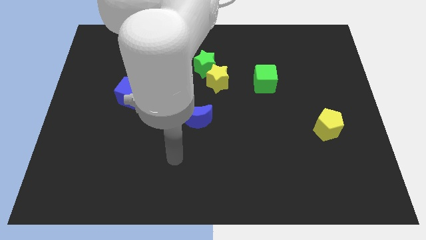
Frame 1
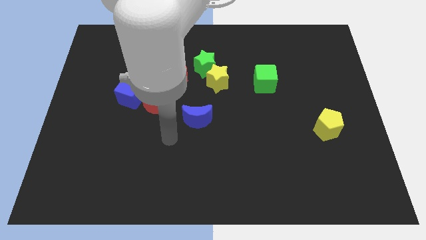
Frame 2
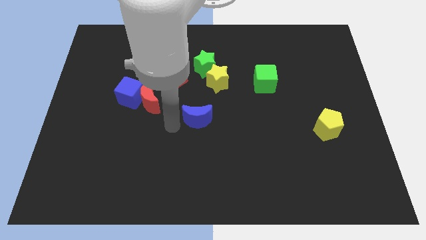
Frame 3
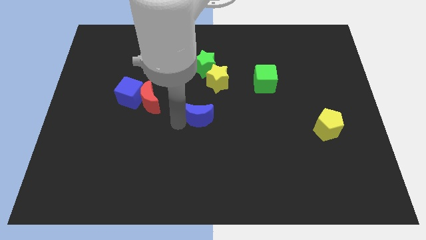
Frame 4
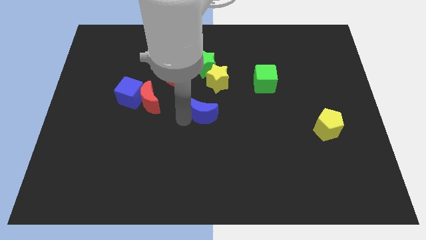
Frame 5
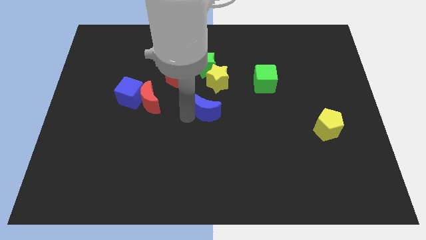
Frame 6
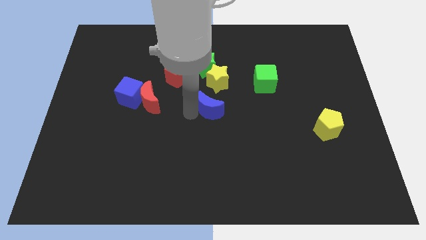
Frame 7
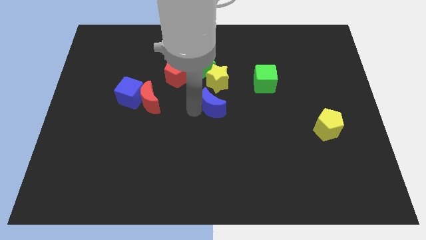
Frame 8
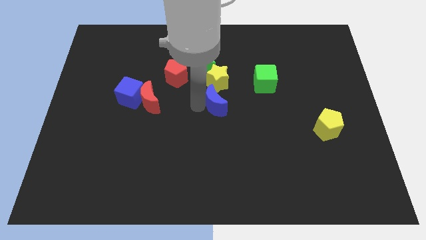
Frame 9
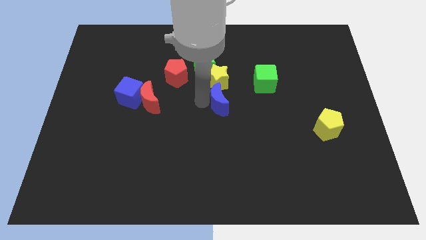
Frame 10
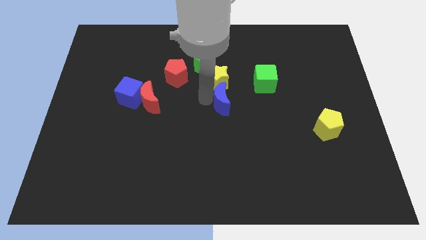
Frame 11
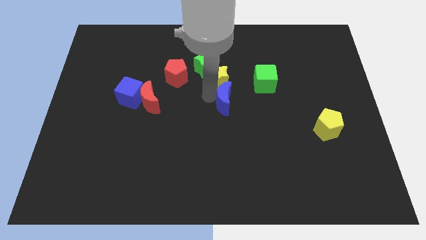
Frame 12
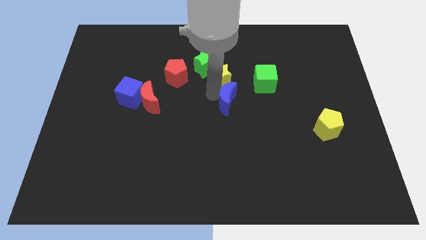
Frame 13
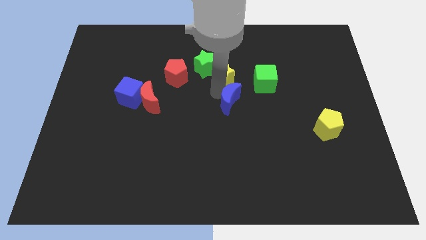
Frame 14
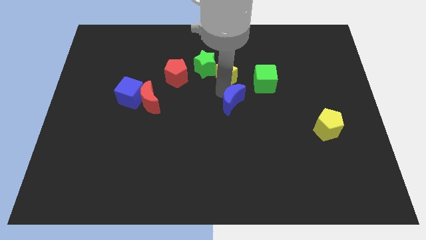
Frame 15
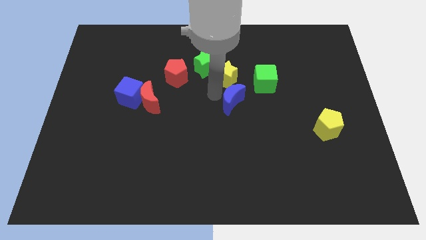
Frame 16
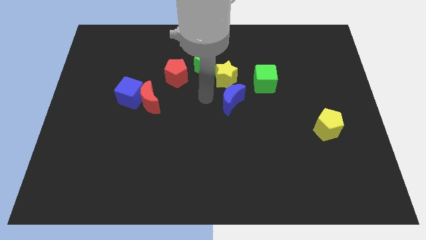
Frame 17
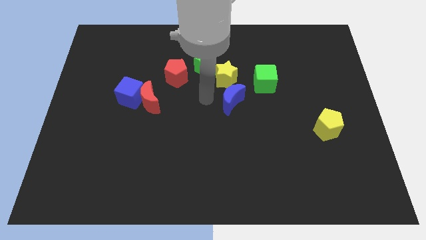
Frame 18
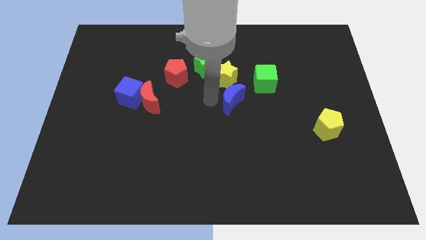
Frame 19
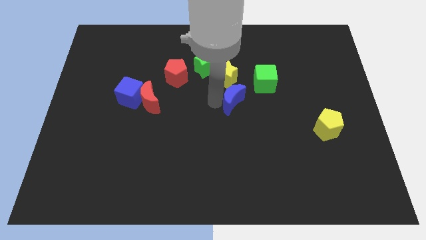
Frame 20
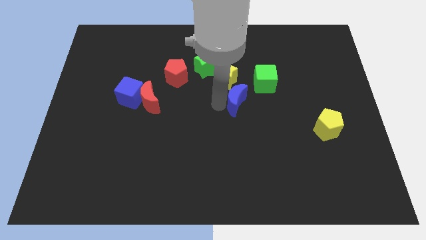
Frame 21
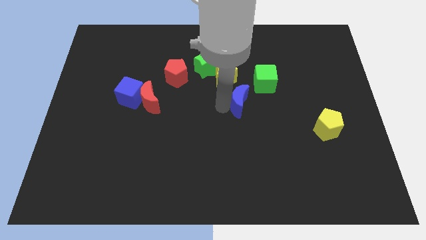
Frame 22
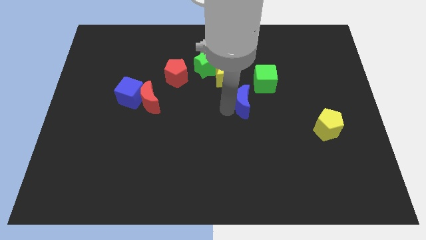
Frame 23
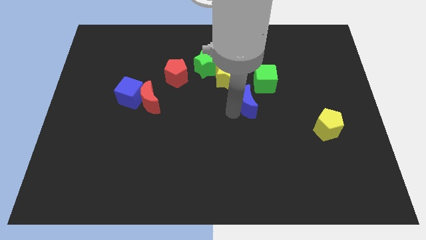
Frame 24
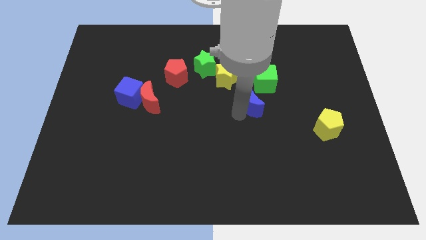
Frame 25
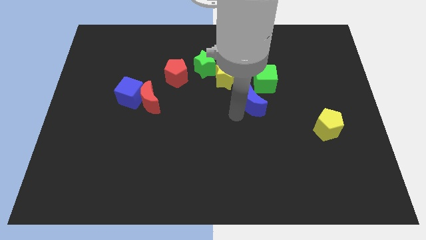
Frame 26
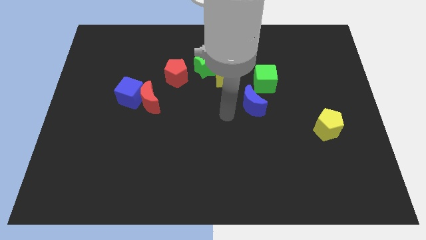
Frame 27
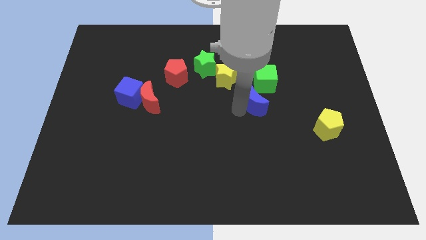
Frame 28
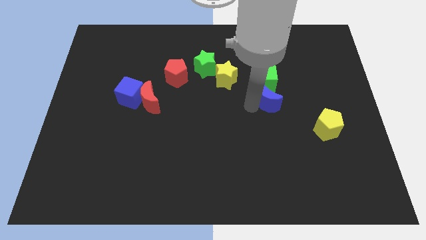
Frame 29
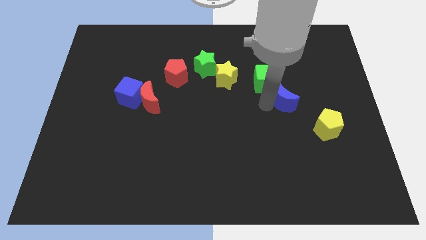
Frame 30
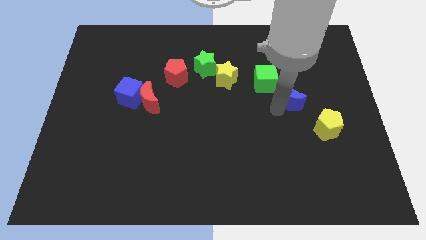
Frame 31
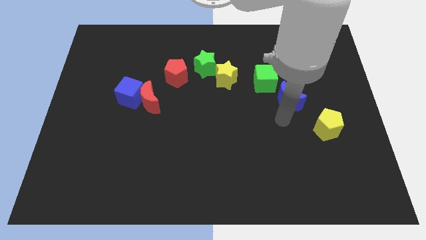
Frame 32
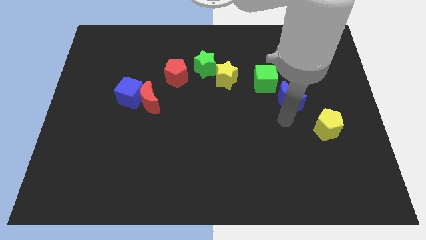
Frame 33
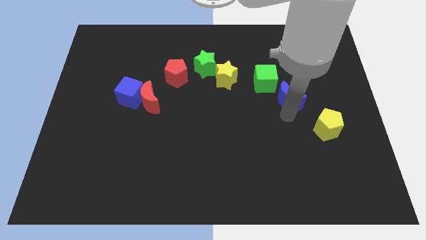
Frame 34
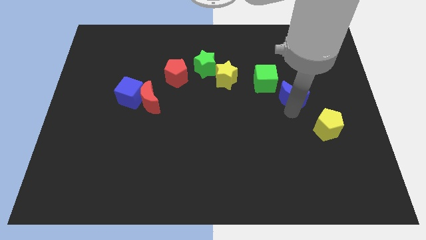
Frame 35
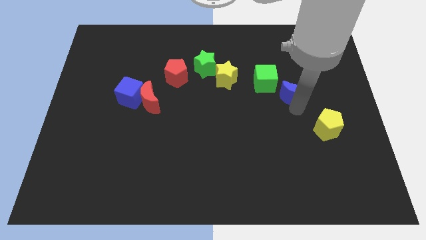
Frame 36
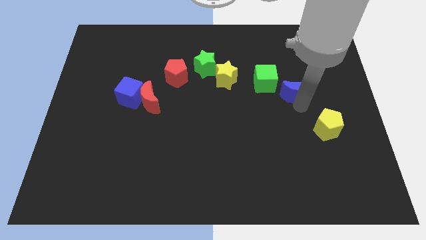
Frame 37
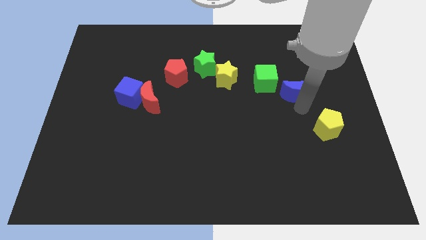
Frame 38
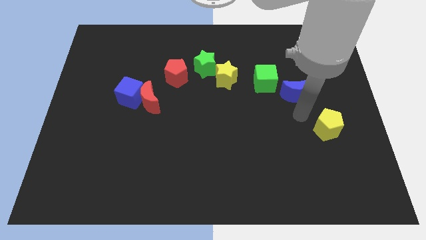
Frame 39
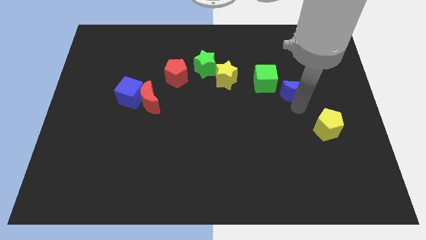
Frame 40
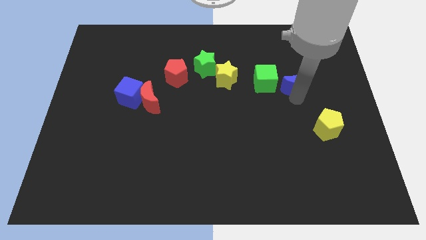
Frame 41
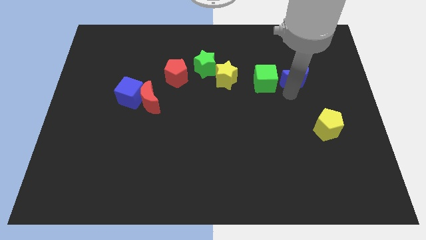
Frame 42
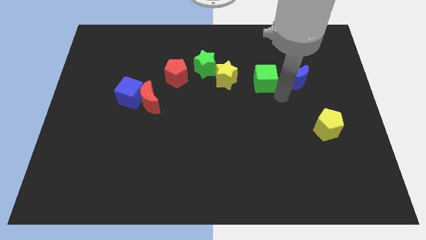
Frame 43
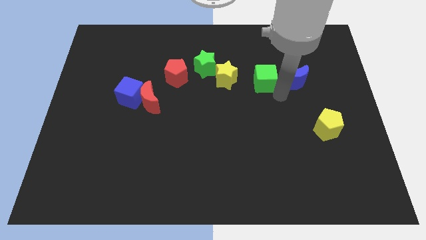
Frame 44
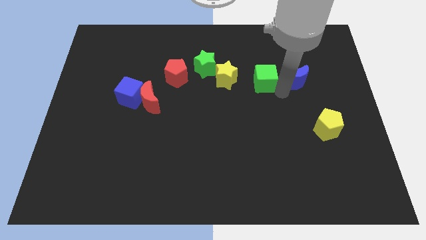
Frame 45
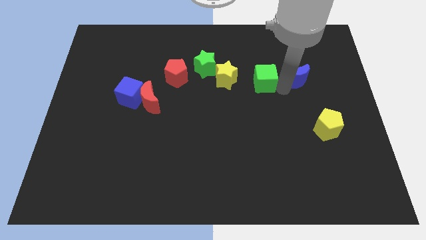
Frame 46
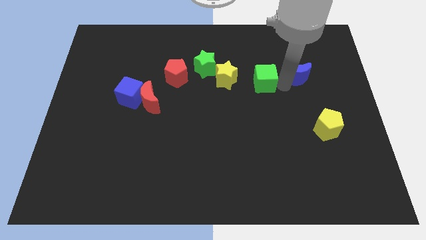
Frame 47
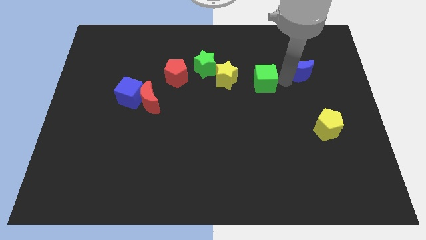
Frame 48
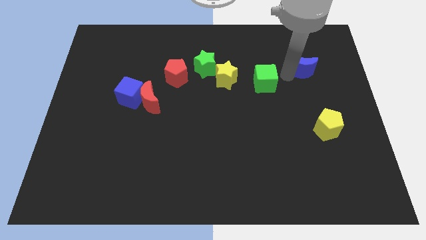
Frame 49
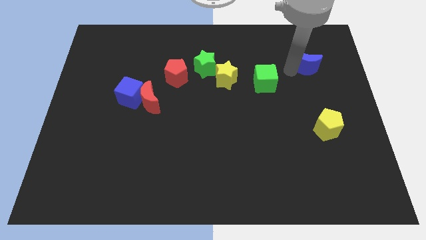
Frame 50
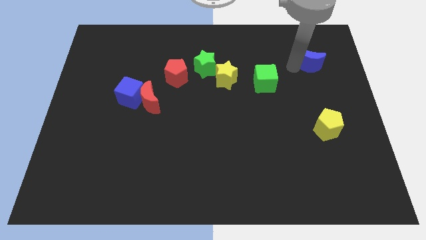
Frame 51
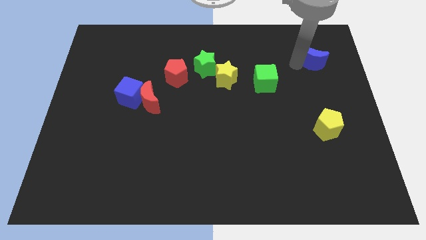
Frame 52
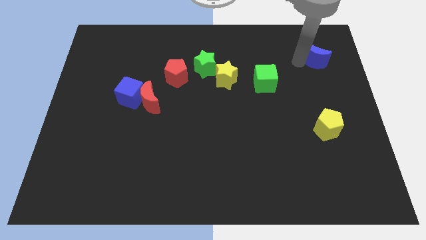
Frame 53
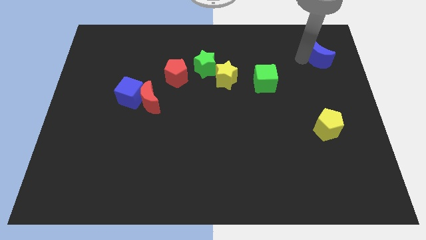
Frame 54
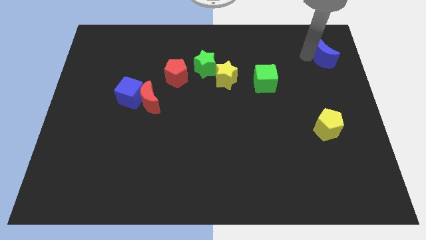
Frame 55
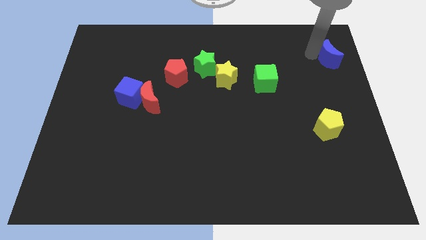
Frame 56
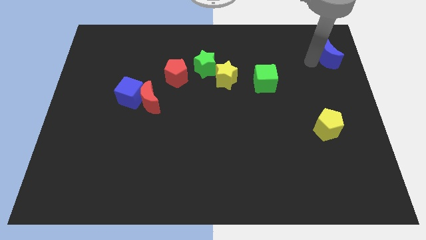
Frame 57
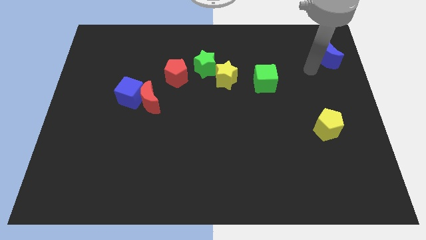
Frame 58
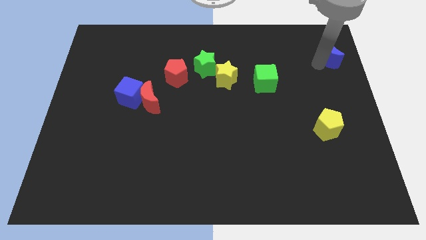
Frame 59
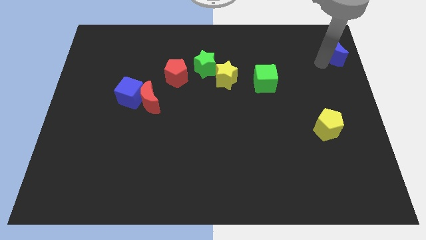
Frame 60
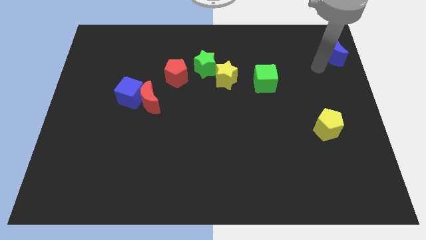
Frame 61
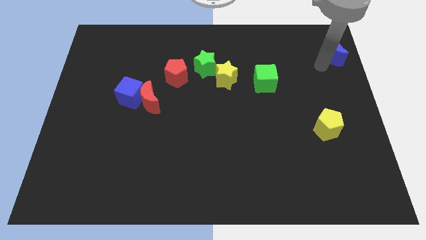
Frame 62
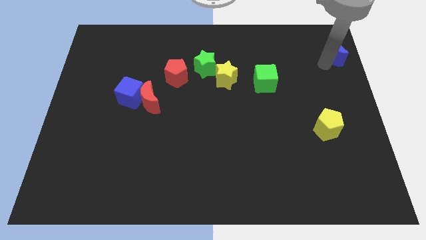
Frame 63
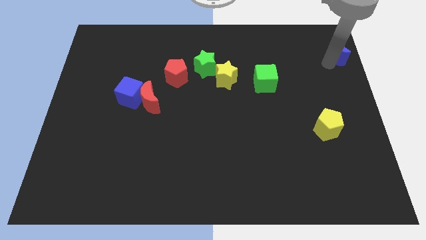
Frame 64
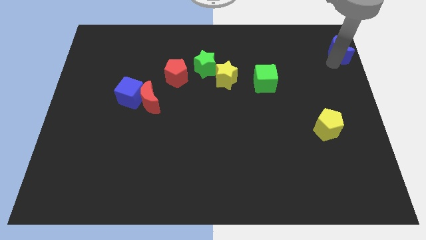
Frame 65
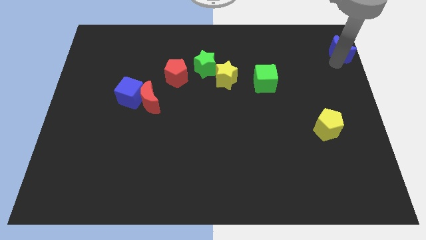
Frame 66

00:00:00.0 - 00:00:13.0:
put the blue moon to the upper right corner

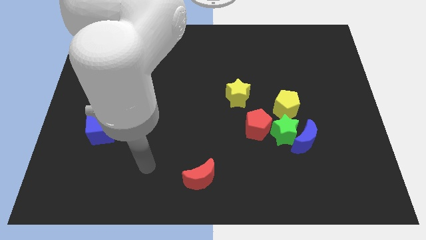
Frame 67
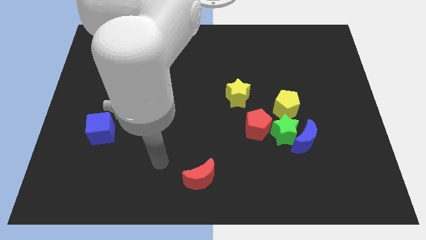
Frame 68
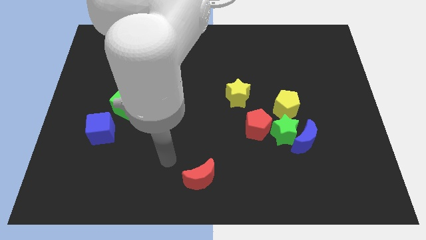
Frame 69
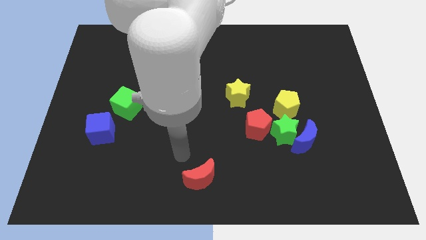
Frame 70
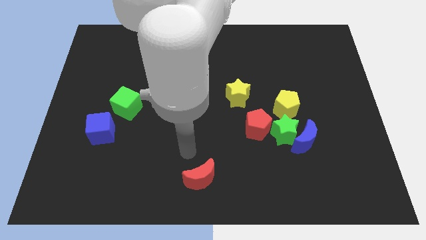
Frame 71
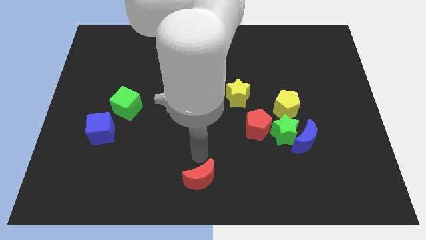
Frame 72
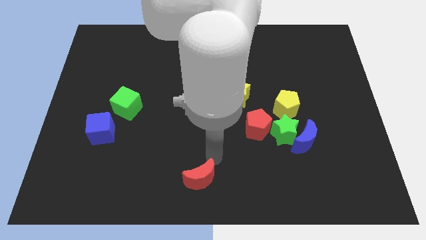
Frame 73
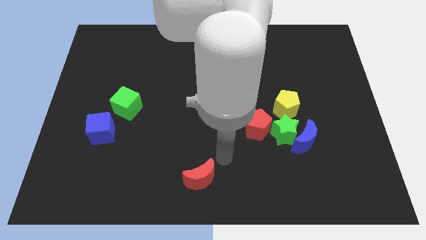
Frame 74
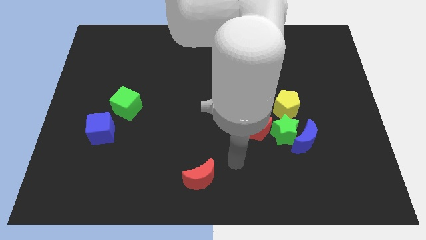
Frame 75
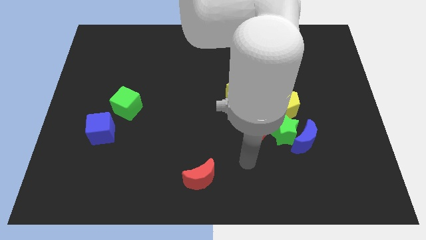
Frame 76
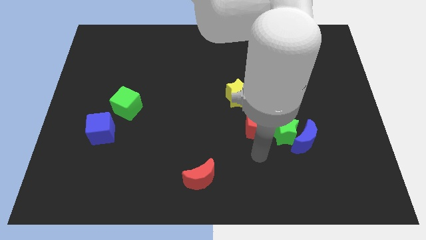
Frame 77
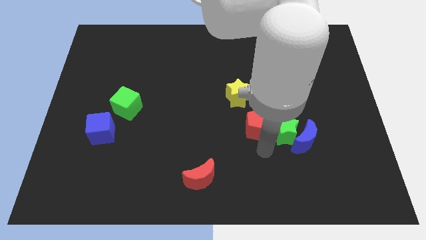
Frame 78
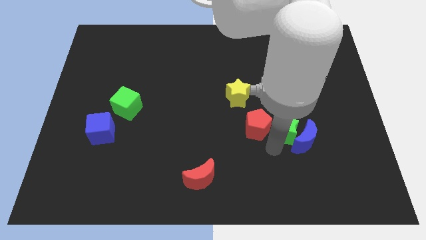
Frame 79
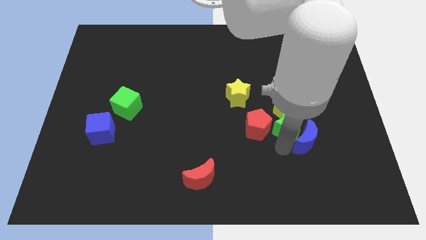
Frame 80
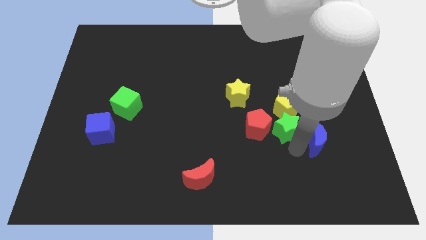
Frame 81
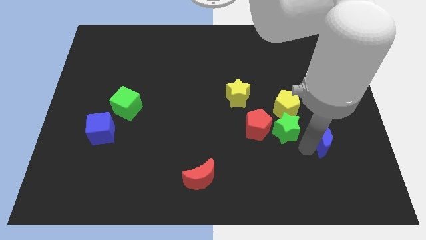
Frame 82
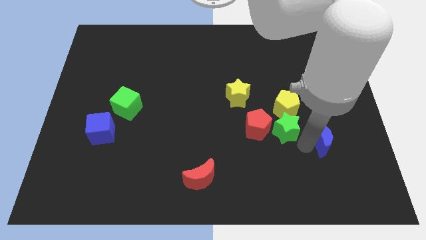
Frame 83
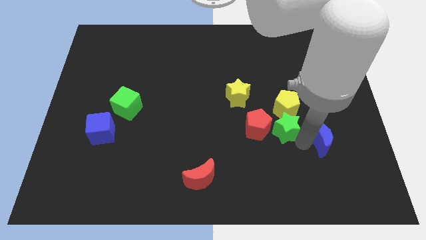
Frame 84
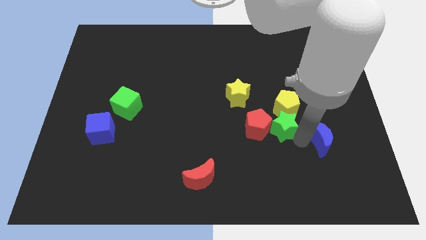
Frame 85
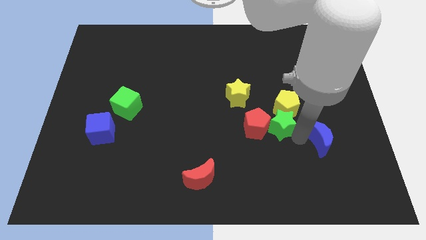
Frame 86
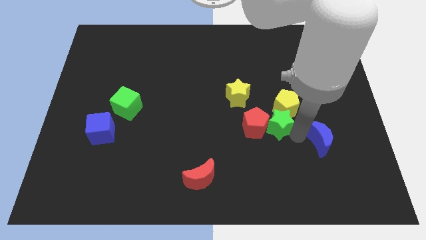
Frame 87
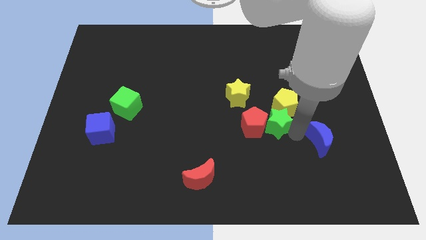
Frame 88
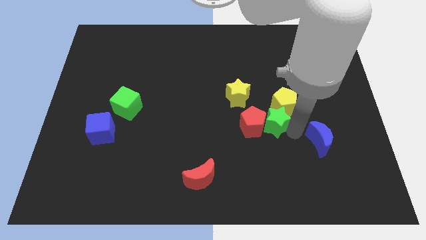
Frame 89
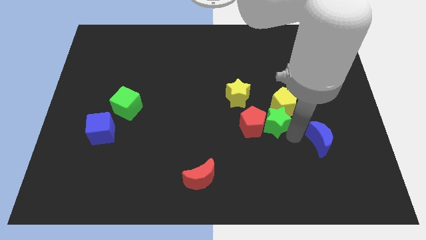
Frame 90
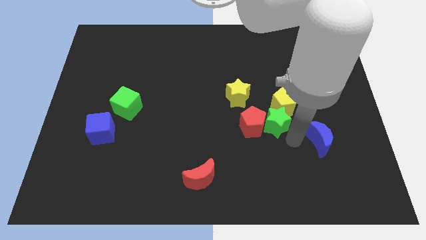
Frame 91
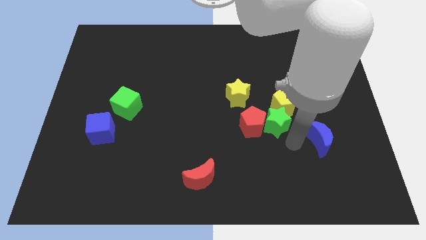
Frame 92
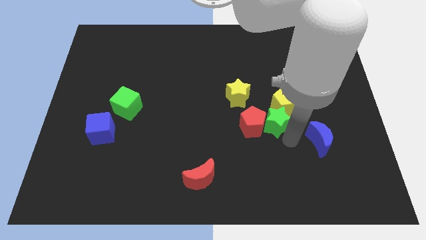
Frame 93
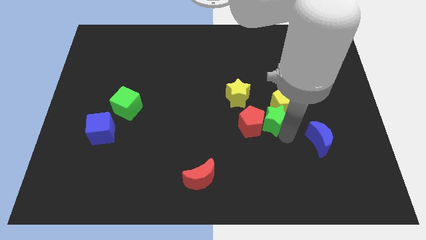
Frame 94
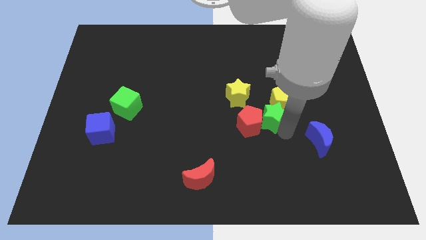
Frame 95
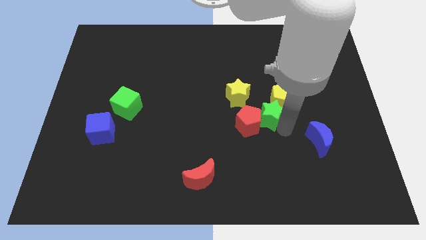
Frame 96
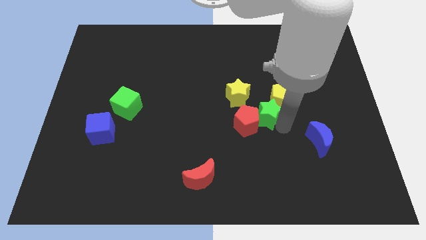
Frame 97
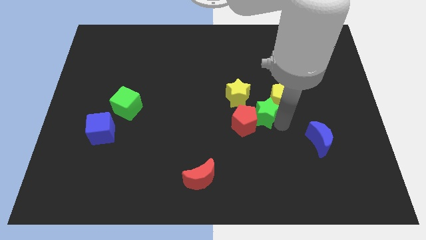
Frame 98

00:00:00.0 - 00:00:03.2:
put the green star to the center of the board
